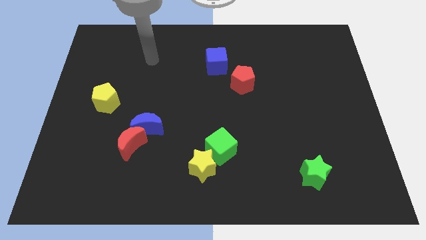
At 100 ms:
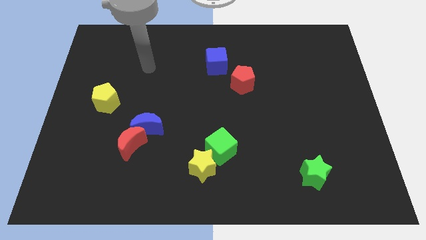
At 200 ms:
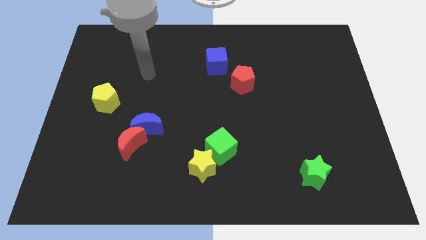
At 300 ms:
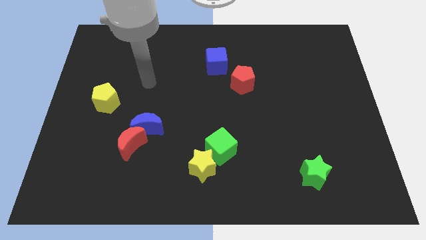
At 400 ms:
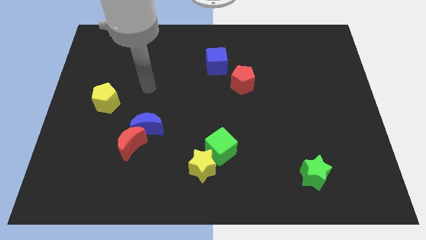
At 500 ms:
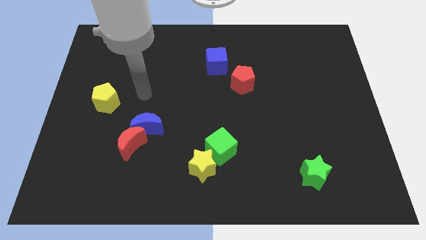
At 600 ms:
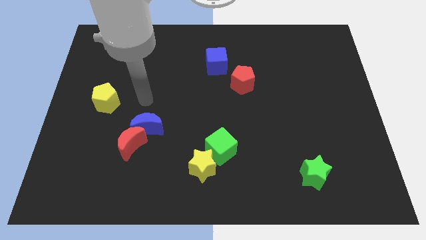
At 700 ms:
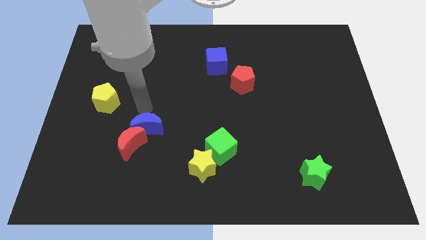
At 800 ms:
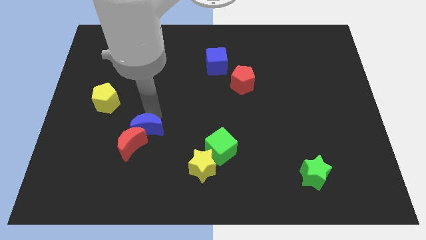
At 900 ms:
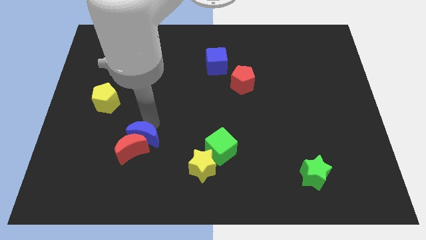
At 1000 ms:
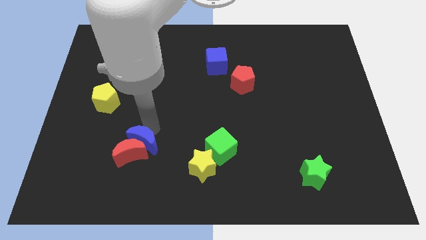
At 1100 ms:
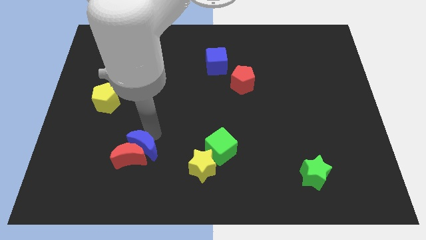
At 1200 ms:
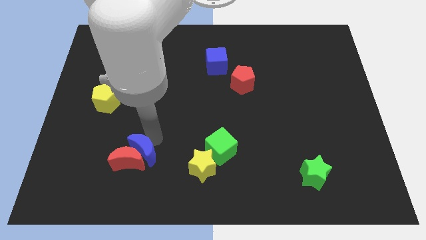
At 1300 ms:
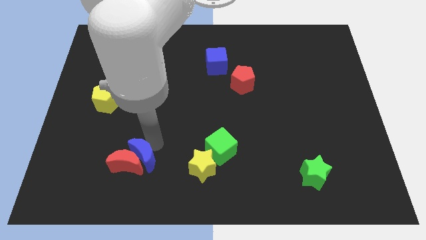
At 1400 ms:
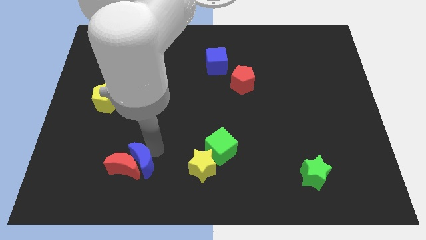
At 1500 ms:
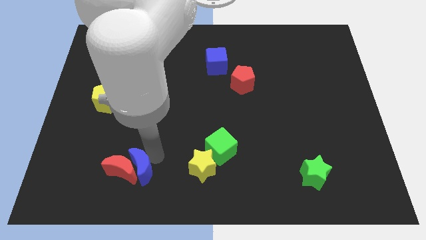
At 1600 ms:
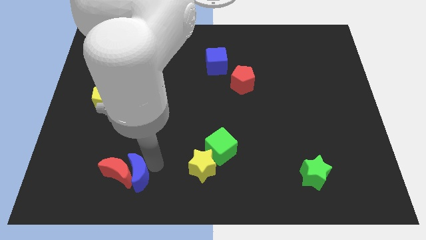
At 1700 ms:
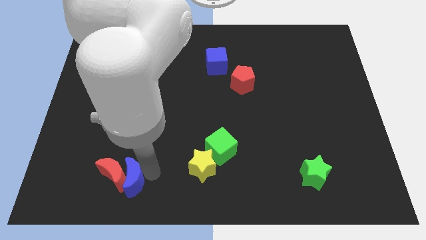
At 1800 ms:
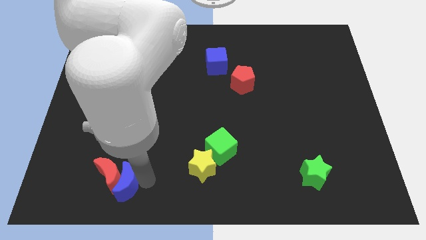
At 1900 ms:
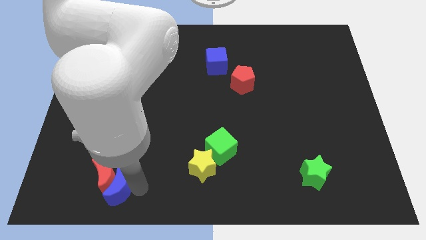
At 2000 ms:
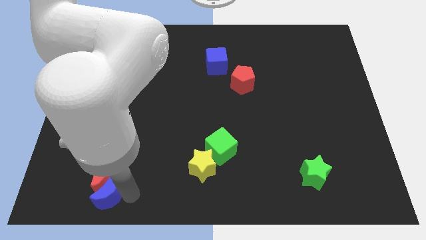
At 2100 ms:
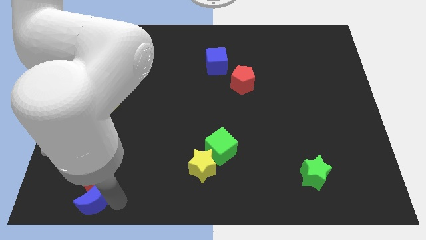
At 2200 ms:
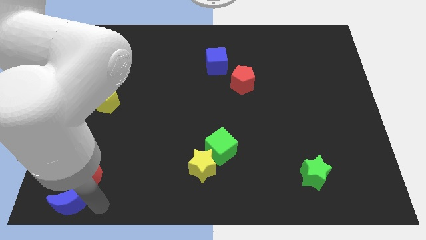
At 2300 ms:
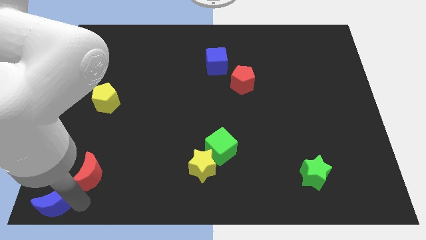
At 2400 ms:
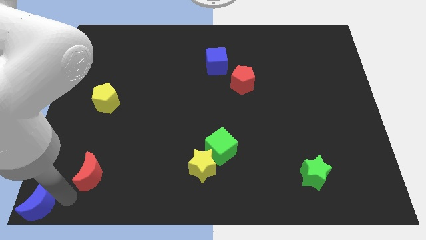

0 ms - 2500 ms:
pull the red moon apart from the blue moon

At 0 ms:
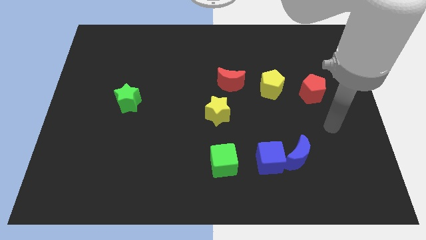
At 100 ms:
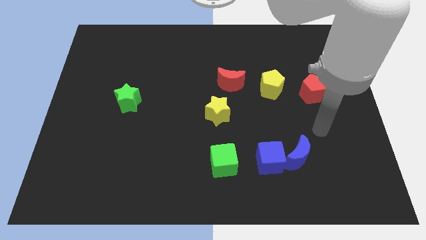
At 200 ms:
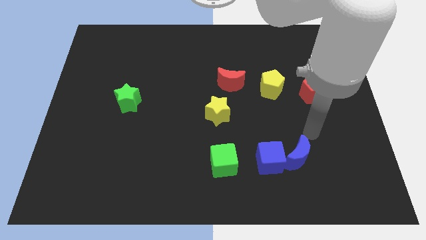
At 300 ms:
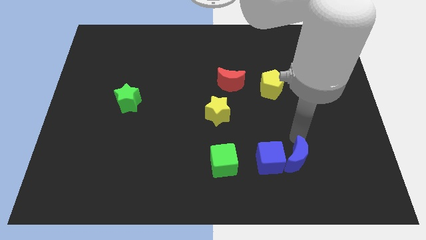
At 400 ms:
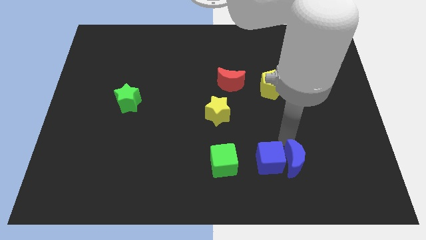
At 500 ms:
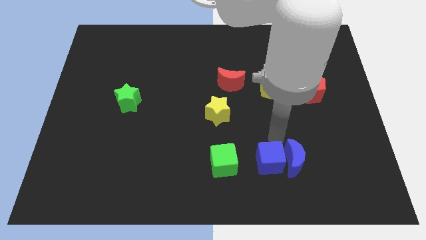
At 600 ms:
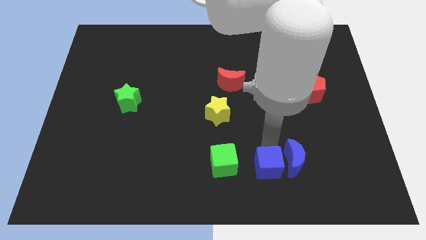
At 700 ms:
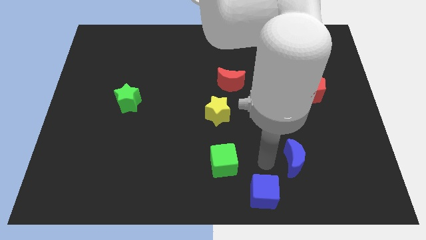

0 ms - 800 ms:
pull the blue moon apart from the blue cube

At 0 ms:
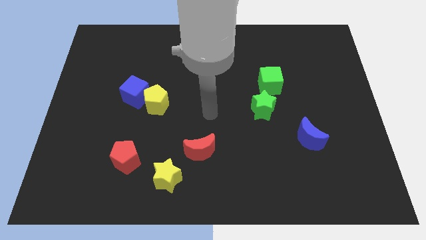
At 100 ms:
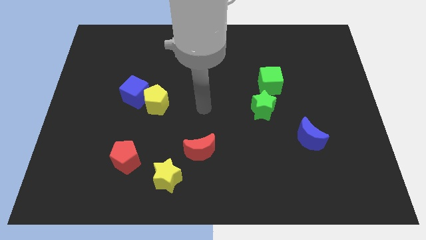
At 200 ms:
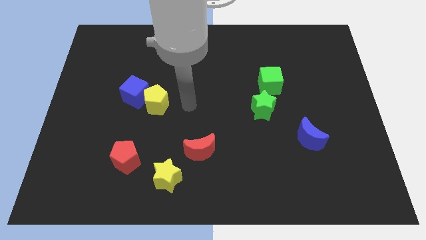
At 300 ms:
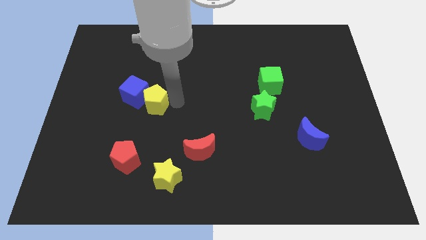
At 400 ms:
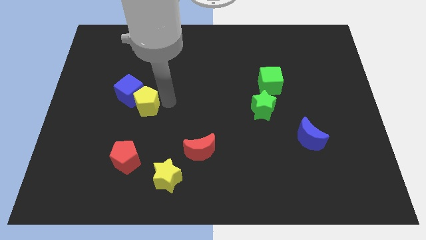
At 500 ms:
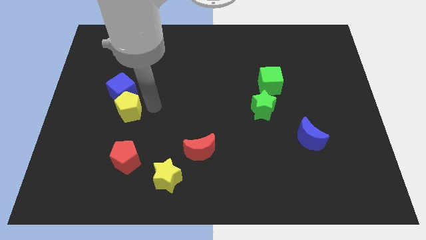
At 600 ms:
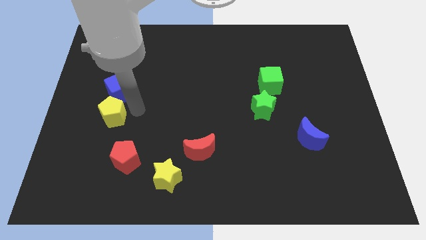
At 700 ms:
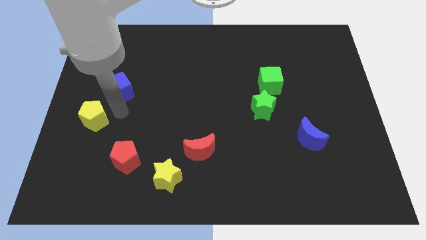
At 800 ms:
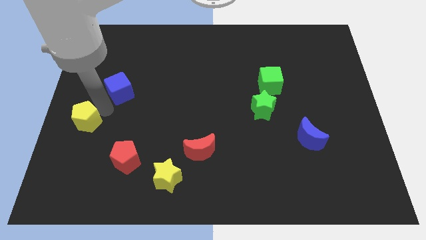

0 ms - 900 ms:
pull the blue cube apart from the yellow pentagon

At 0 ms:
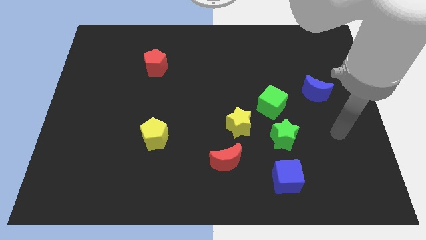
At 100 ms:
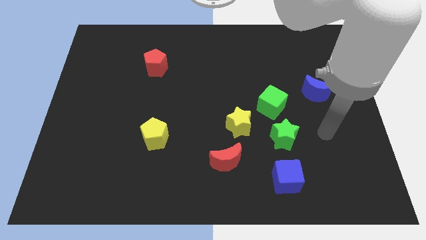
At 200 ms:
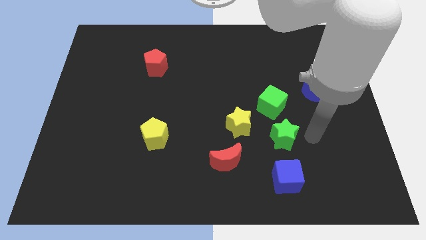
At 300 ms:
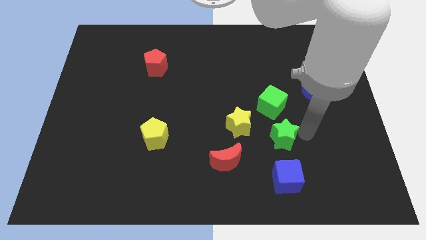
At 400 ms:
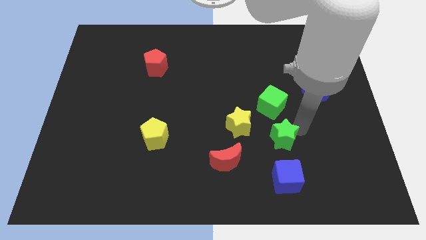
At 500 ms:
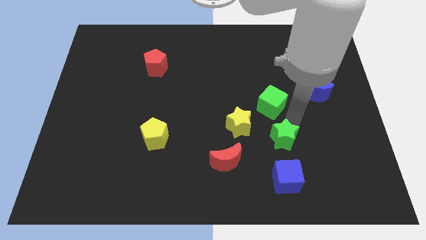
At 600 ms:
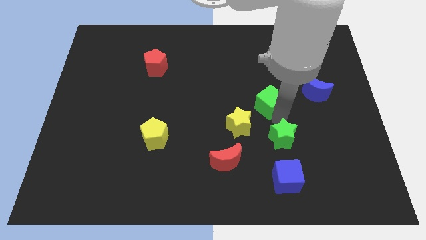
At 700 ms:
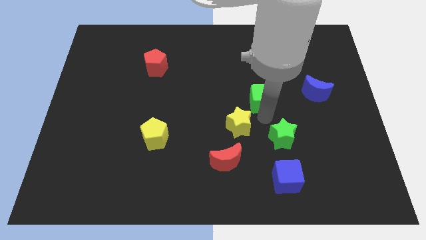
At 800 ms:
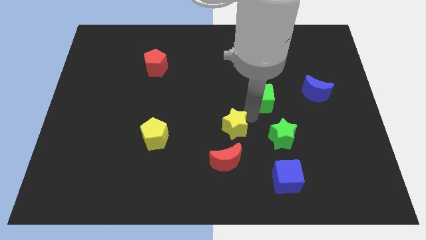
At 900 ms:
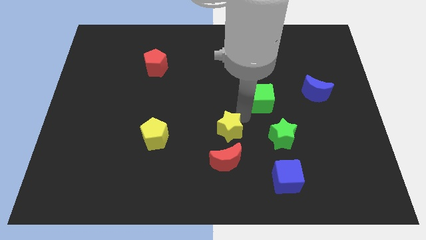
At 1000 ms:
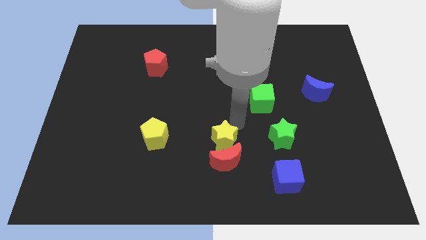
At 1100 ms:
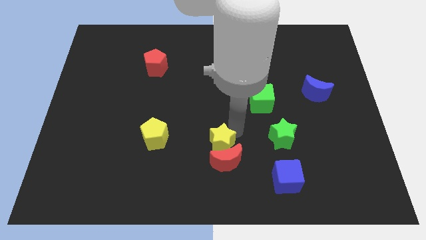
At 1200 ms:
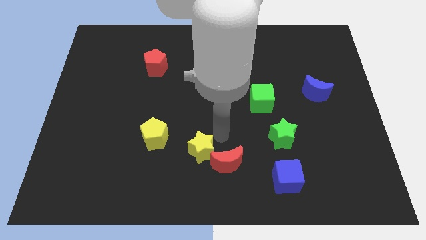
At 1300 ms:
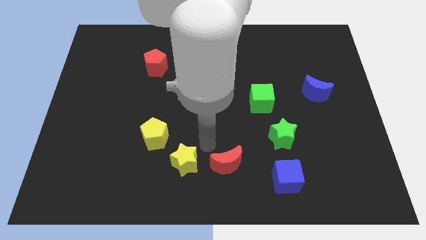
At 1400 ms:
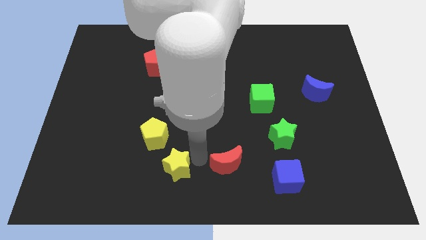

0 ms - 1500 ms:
pull the red moon apart from the yellow star

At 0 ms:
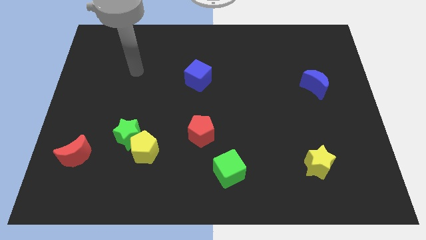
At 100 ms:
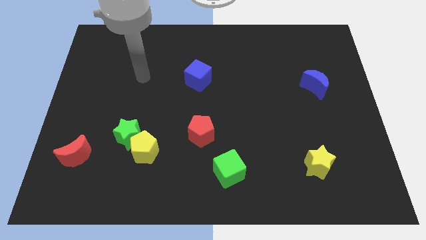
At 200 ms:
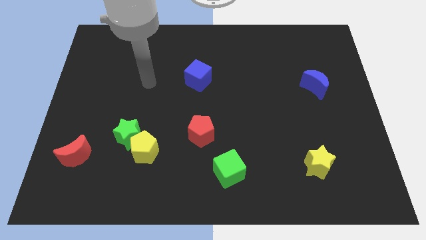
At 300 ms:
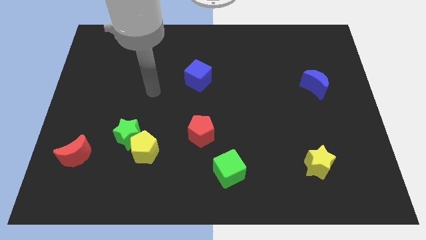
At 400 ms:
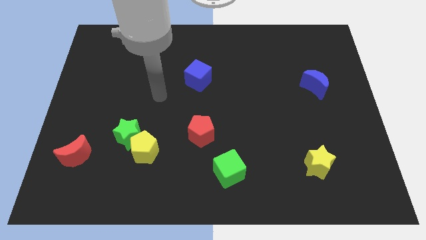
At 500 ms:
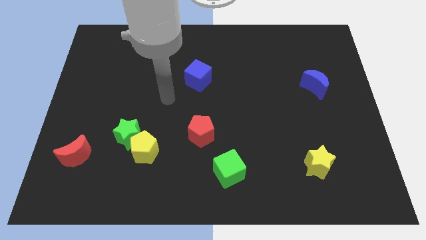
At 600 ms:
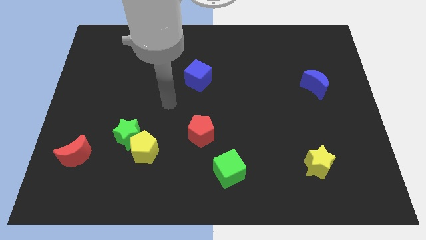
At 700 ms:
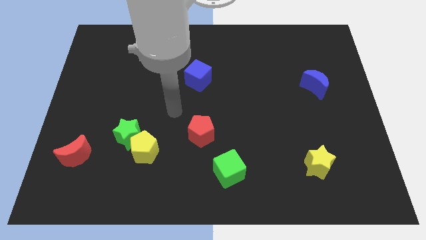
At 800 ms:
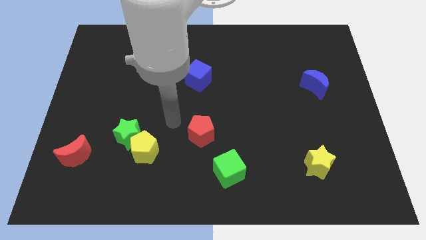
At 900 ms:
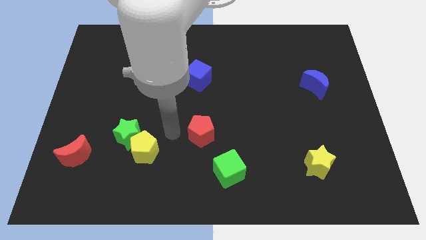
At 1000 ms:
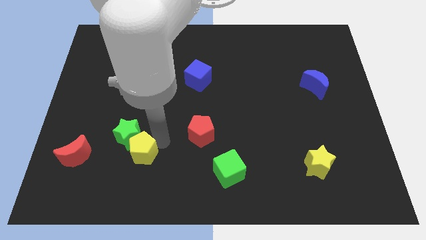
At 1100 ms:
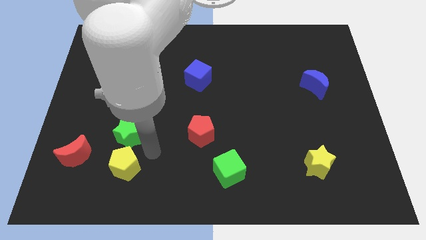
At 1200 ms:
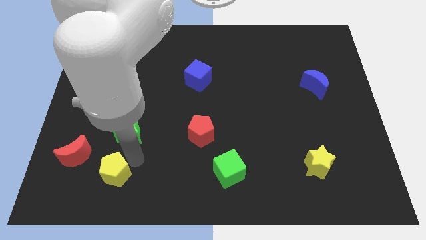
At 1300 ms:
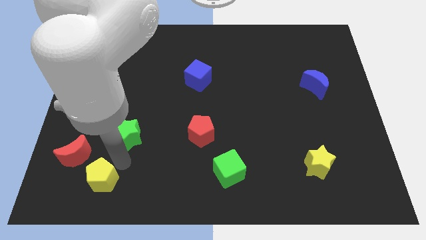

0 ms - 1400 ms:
separate the green star from the yellow pentagon

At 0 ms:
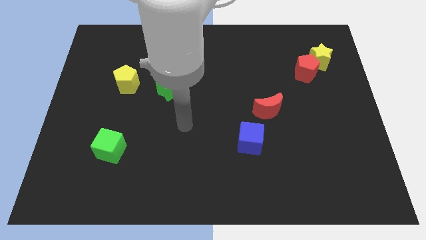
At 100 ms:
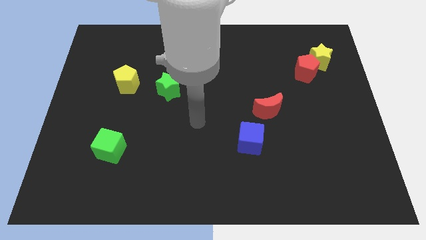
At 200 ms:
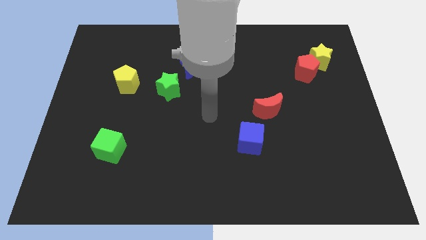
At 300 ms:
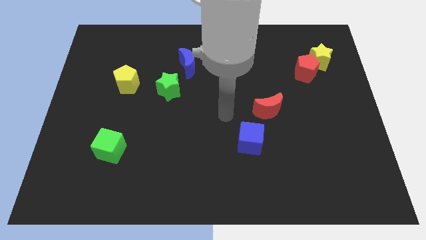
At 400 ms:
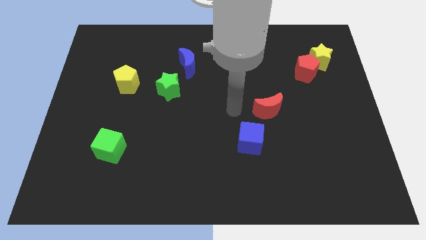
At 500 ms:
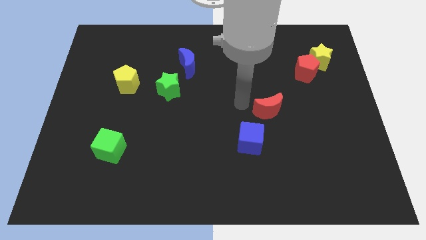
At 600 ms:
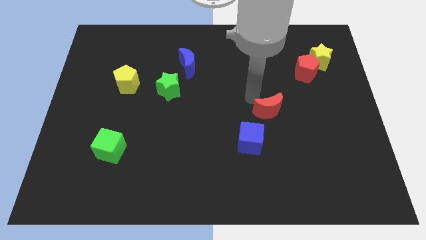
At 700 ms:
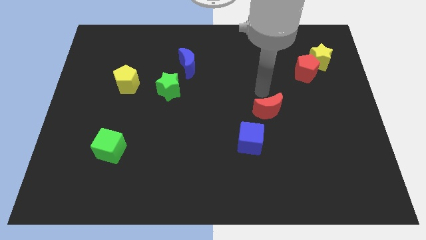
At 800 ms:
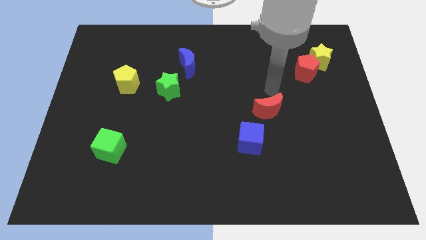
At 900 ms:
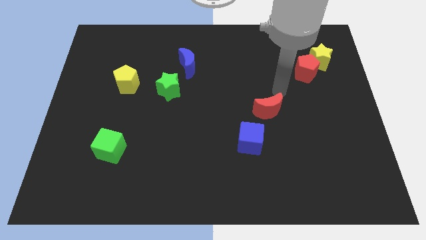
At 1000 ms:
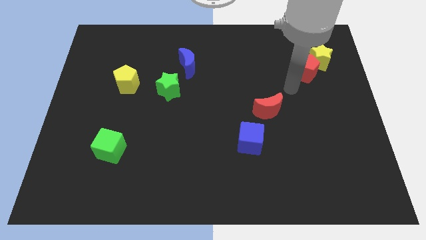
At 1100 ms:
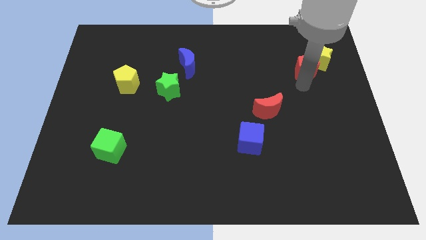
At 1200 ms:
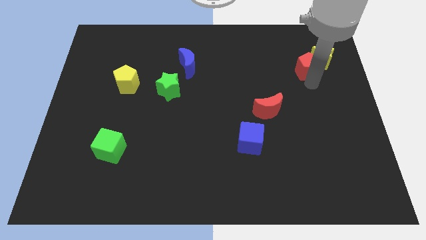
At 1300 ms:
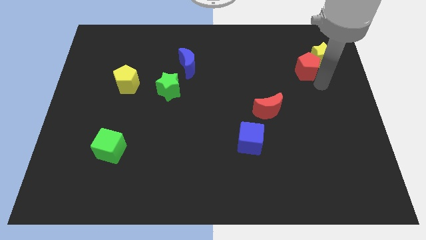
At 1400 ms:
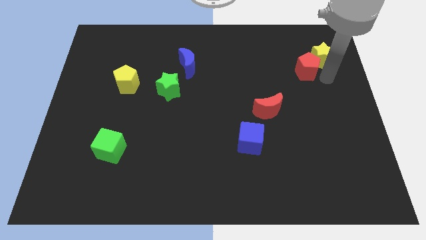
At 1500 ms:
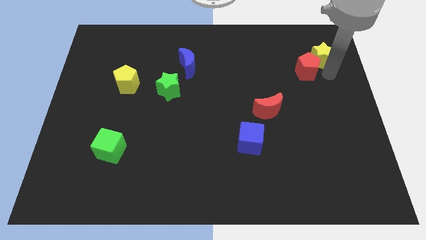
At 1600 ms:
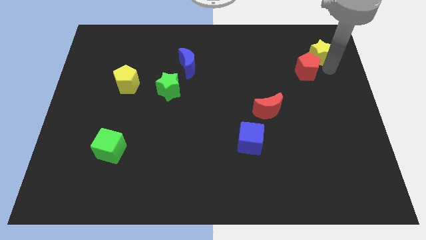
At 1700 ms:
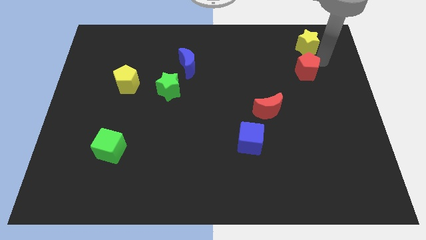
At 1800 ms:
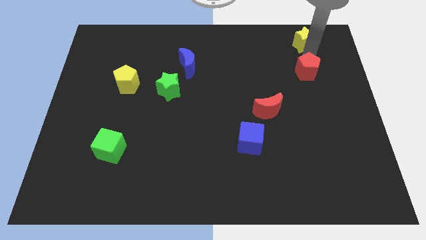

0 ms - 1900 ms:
move the red pentagon away from the yellow star

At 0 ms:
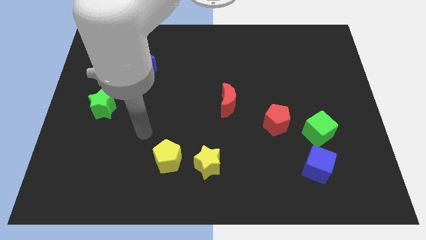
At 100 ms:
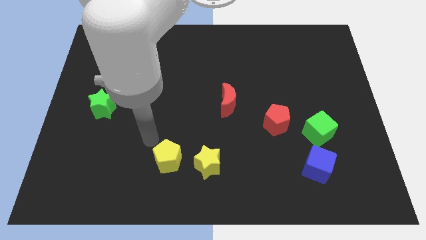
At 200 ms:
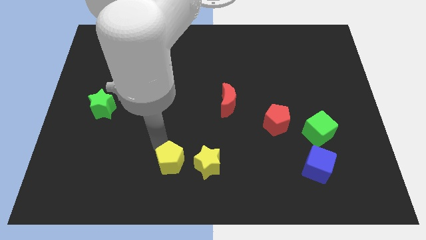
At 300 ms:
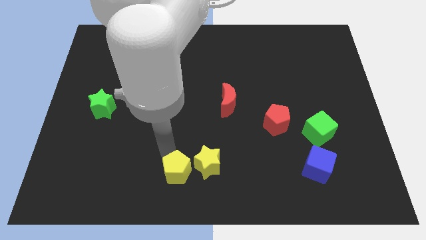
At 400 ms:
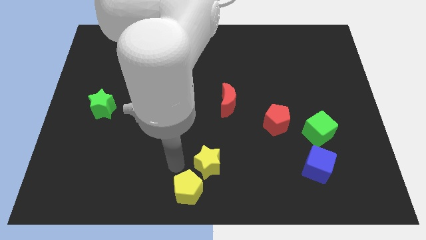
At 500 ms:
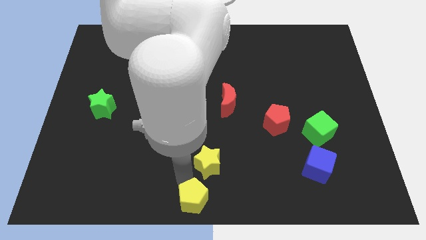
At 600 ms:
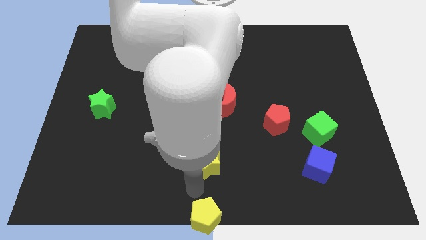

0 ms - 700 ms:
move the yellow star away from the yellow pentagon
